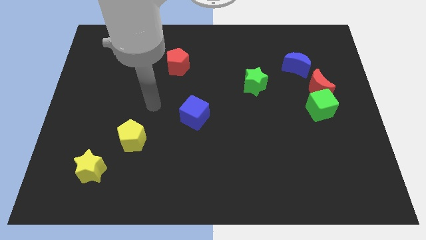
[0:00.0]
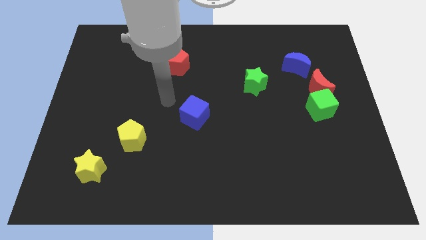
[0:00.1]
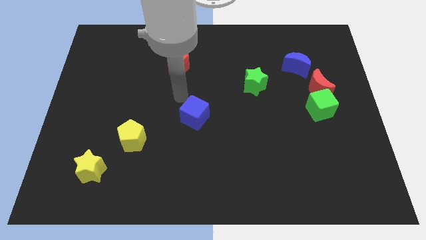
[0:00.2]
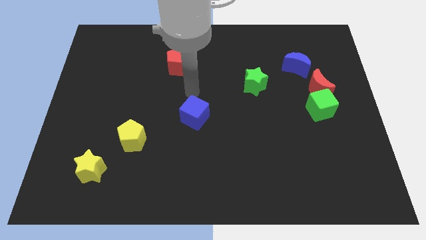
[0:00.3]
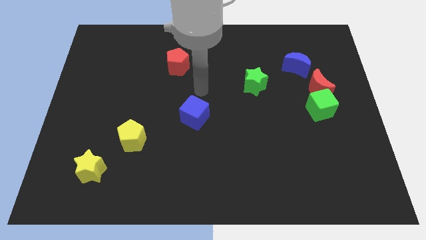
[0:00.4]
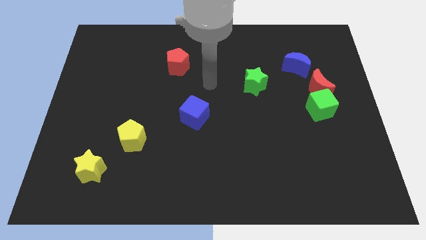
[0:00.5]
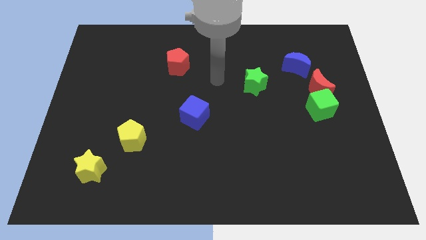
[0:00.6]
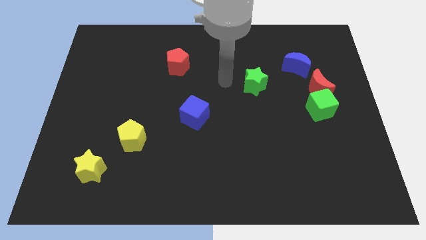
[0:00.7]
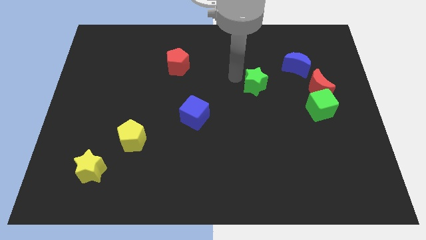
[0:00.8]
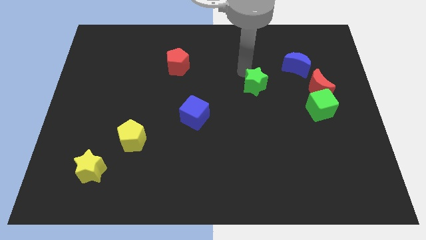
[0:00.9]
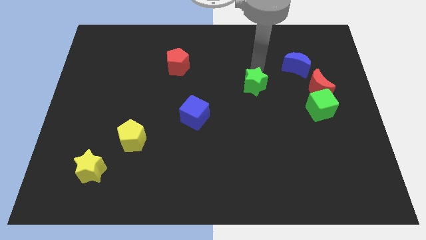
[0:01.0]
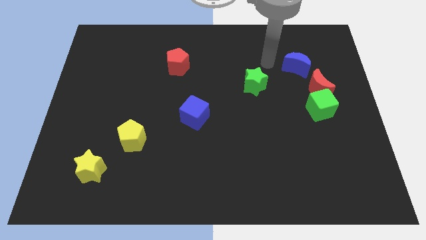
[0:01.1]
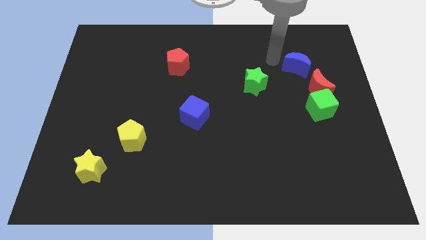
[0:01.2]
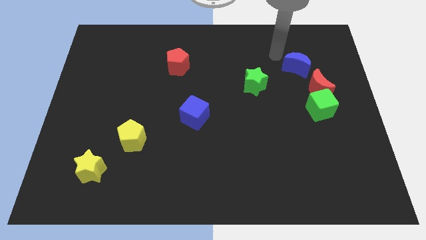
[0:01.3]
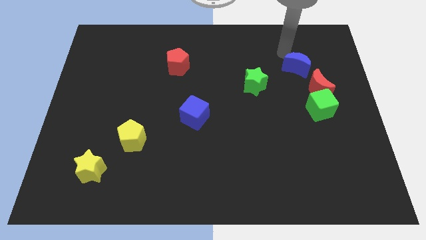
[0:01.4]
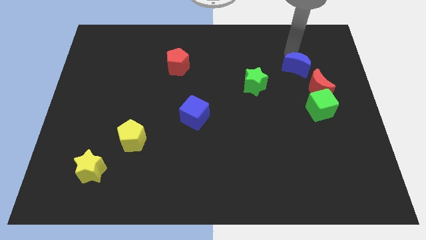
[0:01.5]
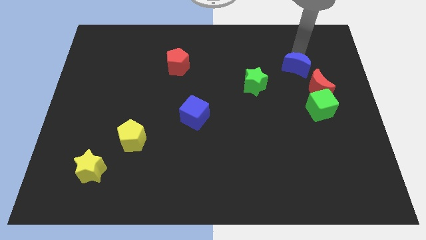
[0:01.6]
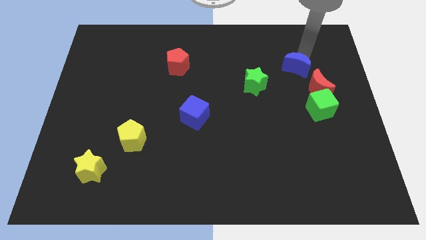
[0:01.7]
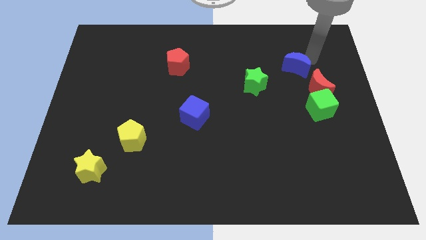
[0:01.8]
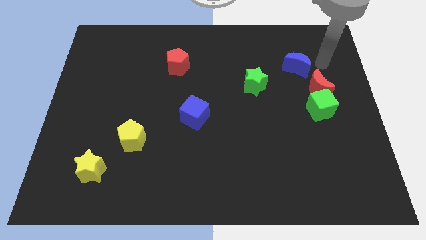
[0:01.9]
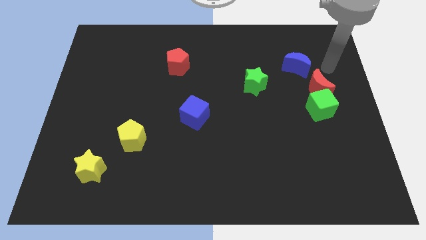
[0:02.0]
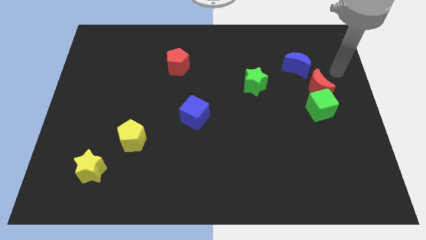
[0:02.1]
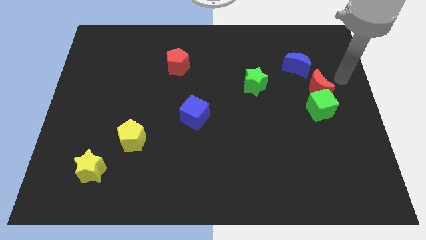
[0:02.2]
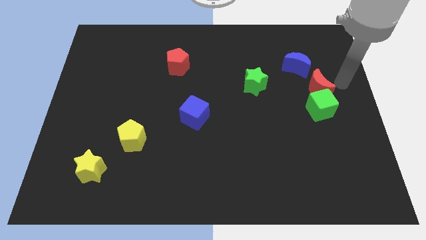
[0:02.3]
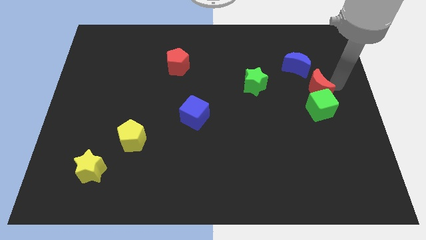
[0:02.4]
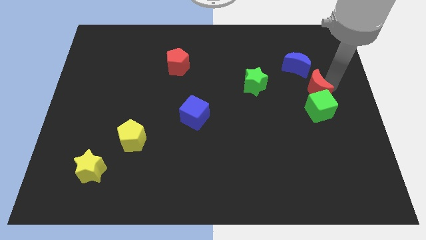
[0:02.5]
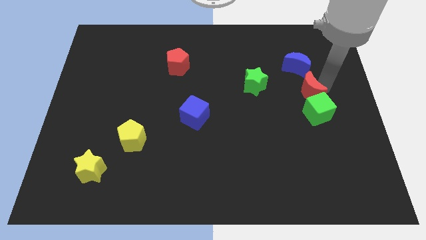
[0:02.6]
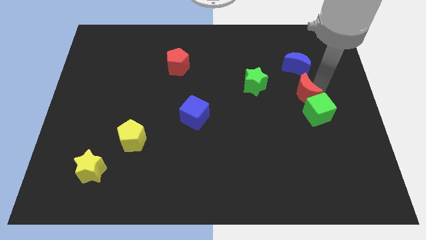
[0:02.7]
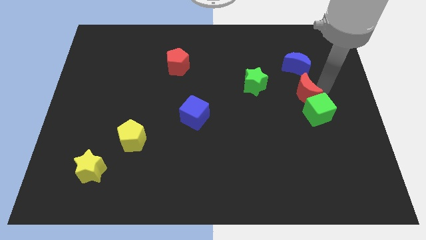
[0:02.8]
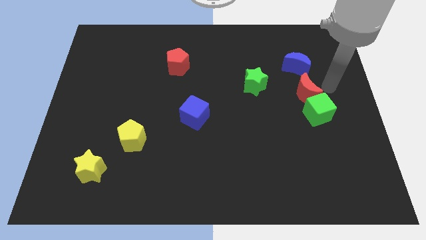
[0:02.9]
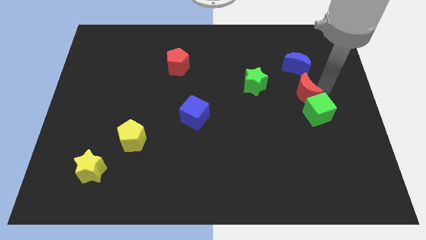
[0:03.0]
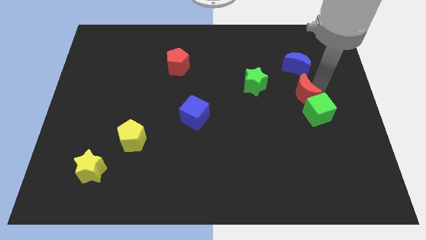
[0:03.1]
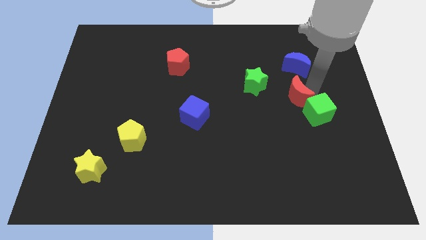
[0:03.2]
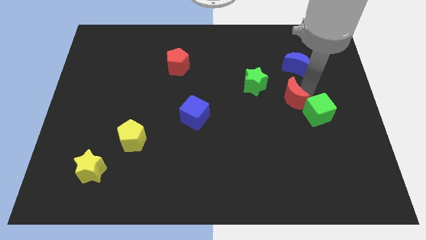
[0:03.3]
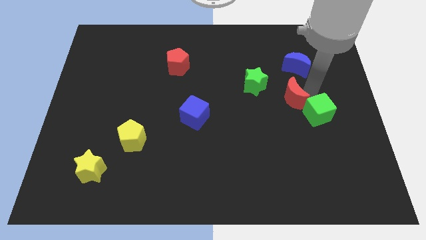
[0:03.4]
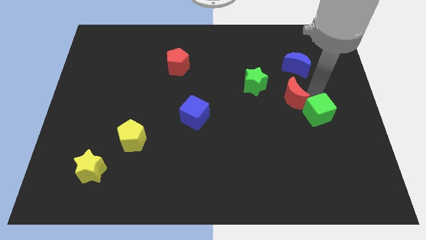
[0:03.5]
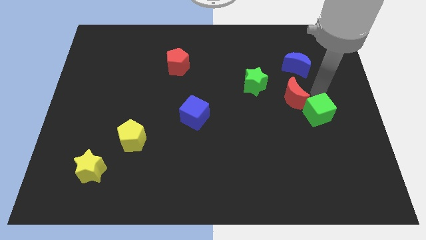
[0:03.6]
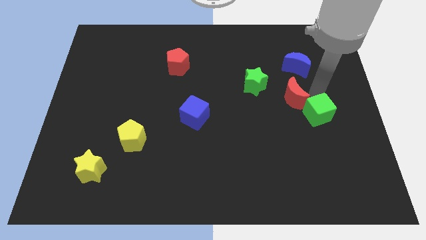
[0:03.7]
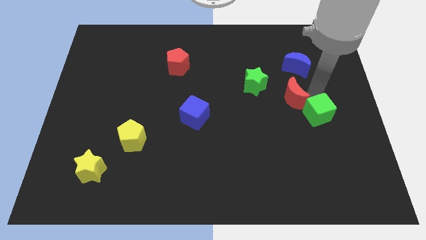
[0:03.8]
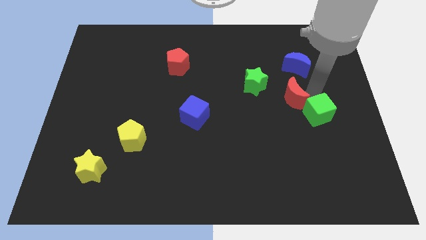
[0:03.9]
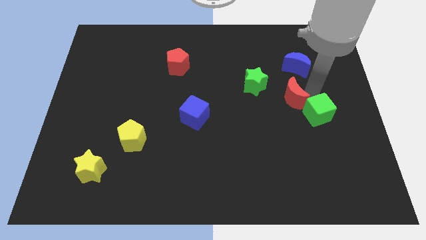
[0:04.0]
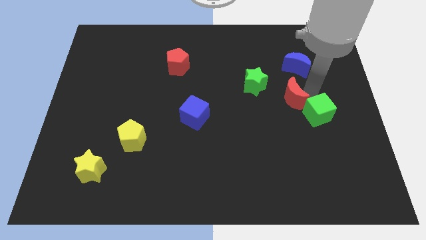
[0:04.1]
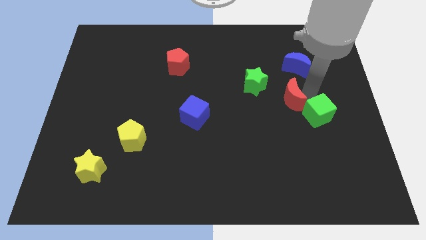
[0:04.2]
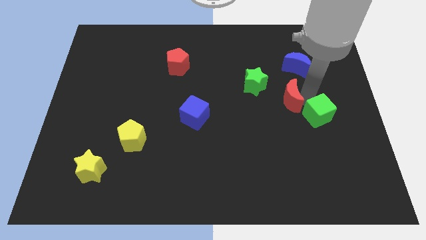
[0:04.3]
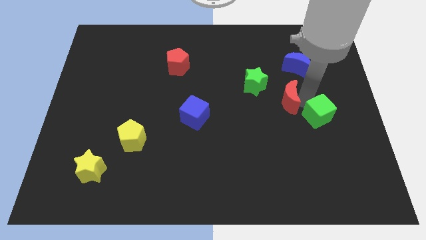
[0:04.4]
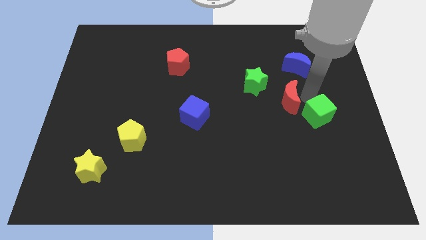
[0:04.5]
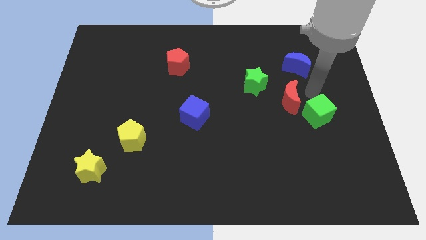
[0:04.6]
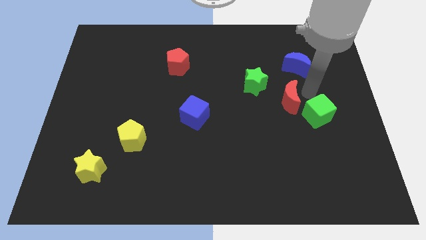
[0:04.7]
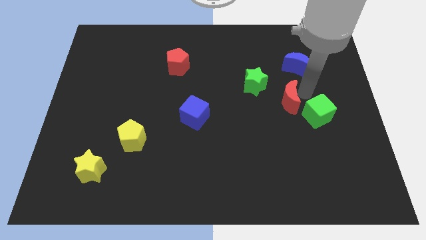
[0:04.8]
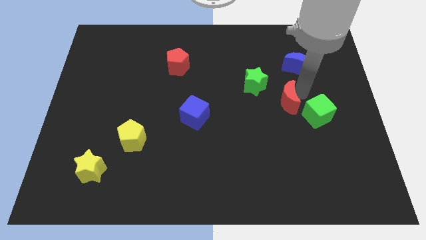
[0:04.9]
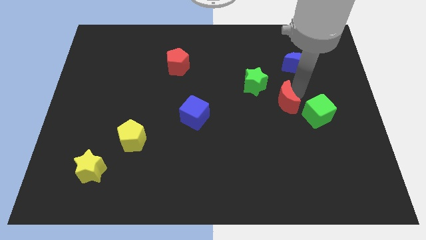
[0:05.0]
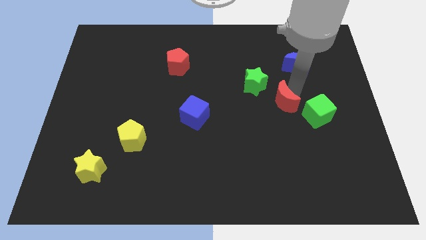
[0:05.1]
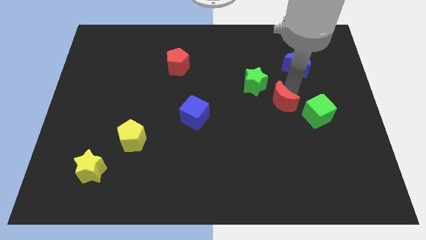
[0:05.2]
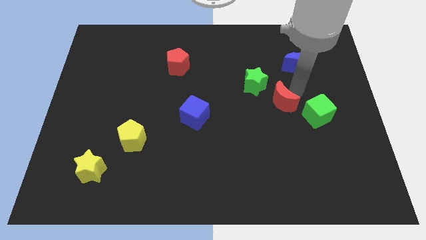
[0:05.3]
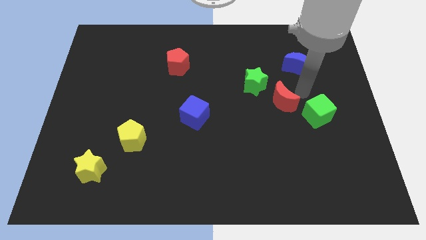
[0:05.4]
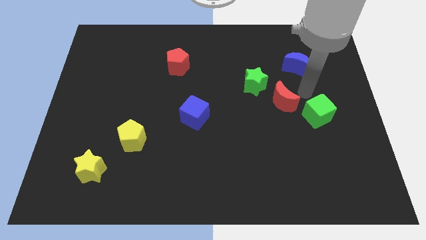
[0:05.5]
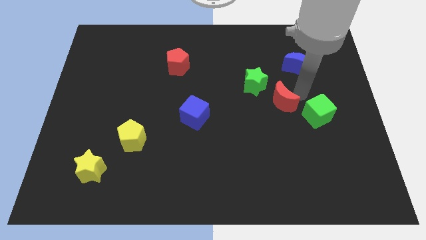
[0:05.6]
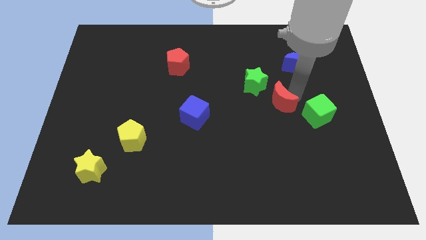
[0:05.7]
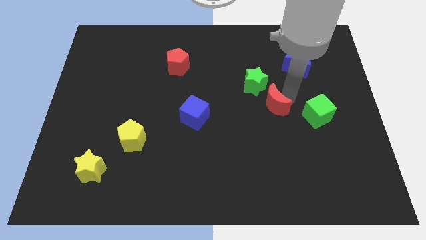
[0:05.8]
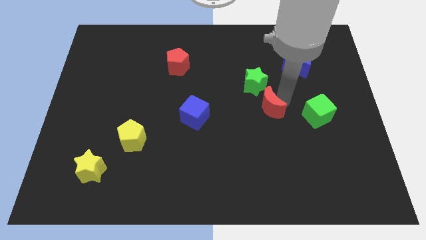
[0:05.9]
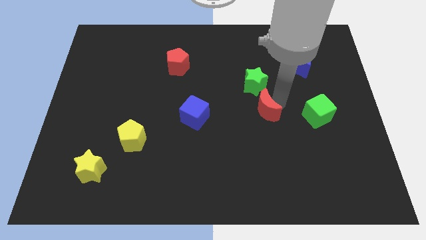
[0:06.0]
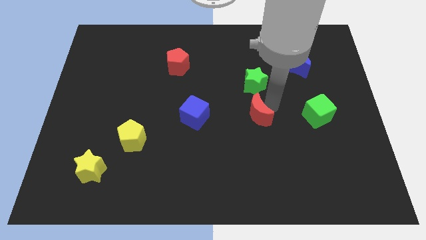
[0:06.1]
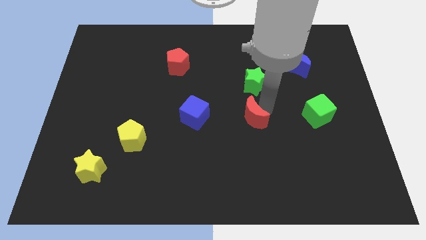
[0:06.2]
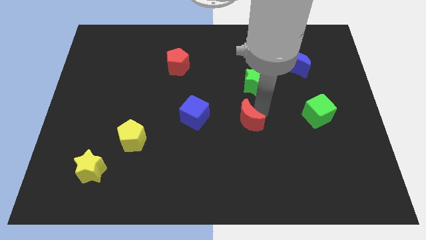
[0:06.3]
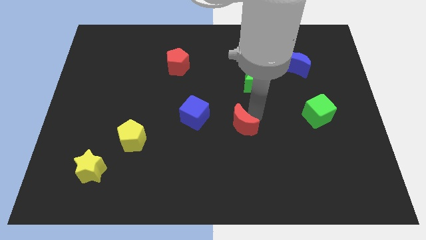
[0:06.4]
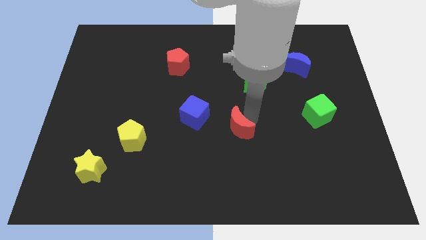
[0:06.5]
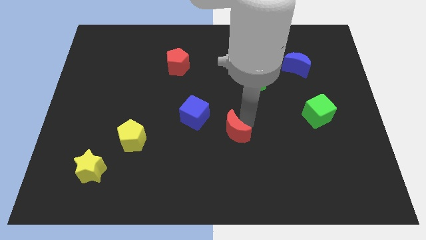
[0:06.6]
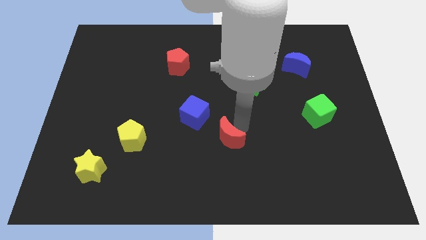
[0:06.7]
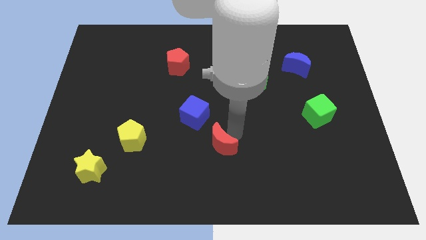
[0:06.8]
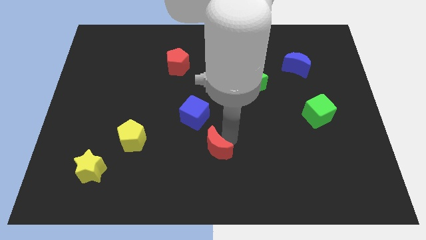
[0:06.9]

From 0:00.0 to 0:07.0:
put the red moon to the bottom side of the blue cube
